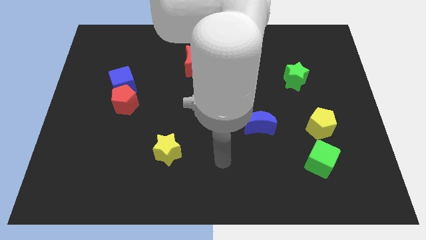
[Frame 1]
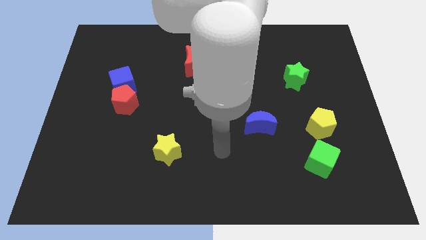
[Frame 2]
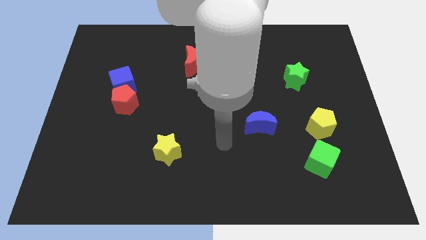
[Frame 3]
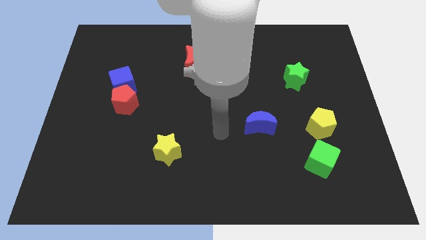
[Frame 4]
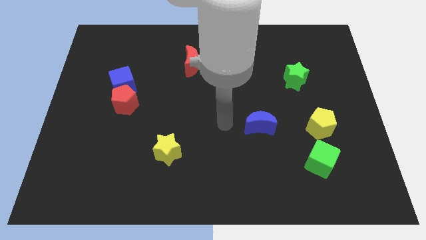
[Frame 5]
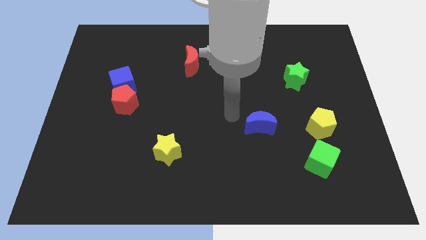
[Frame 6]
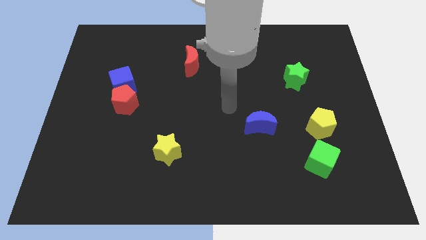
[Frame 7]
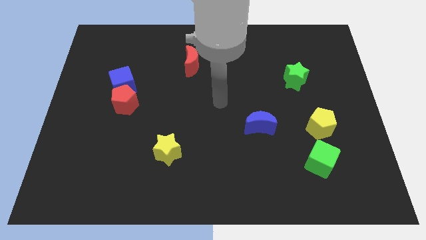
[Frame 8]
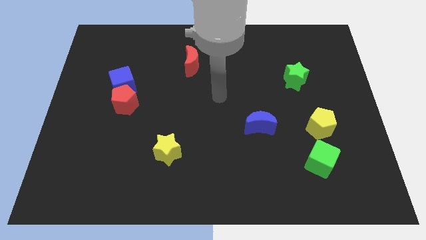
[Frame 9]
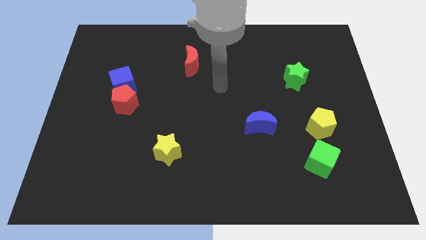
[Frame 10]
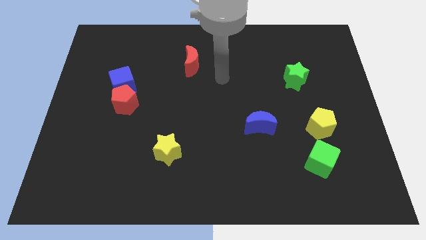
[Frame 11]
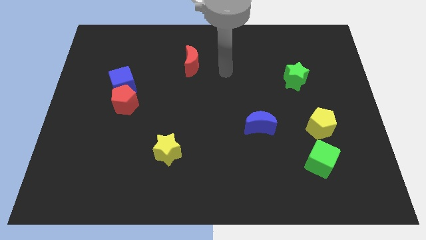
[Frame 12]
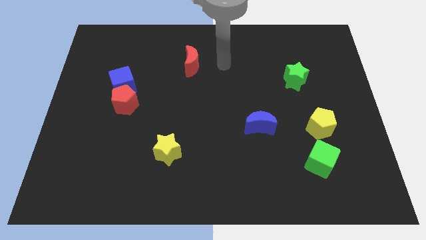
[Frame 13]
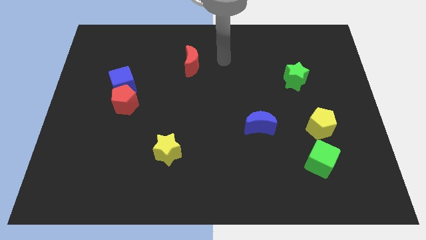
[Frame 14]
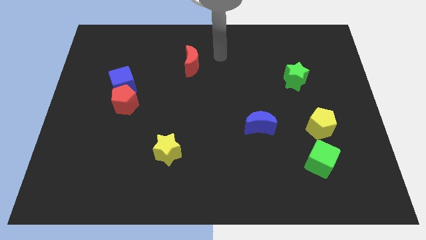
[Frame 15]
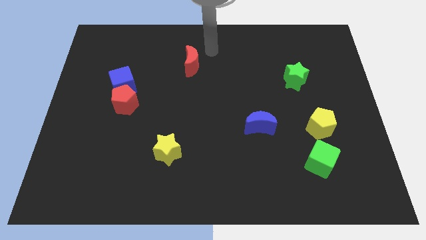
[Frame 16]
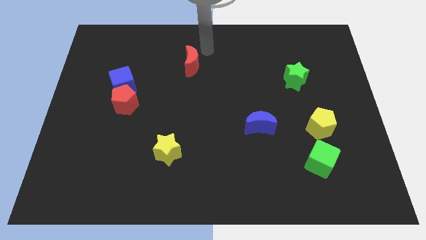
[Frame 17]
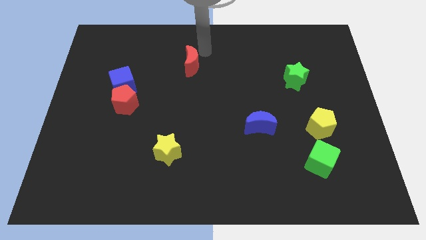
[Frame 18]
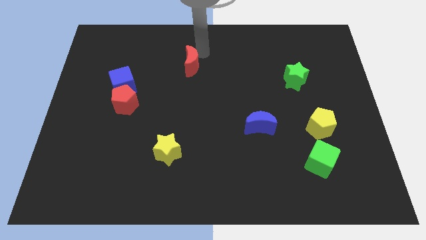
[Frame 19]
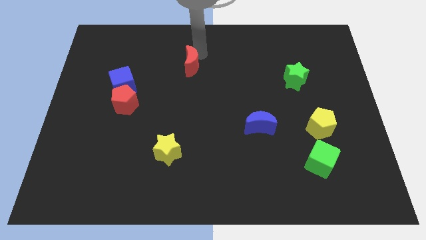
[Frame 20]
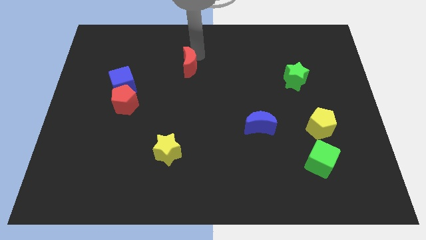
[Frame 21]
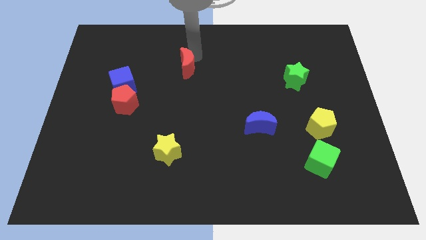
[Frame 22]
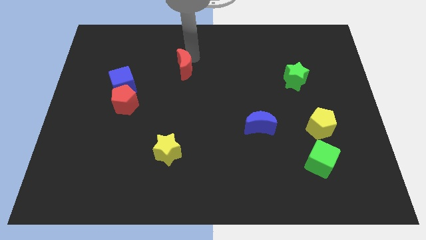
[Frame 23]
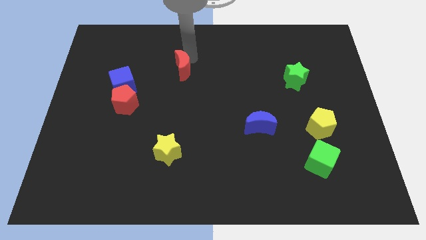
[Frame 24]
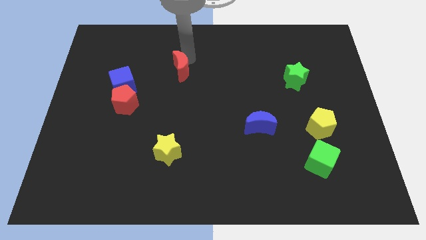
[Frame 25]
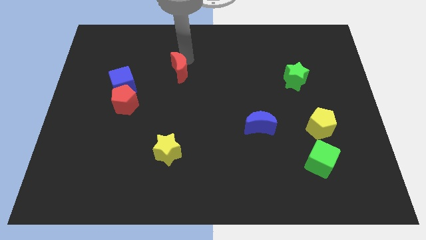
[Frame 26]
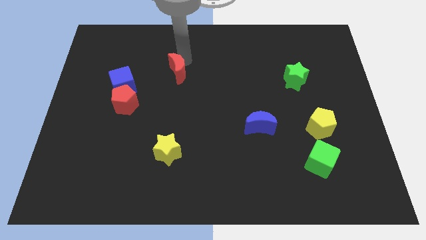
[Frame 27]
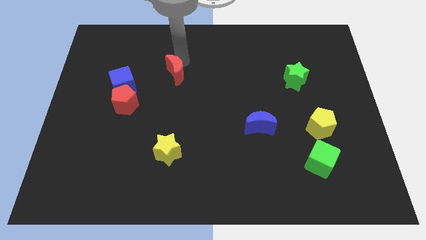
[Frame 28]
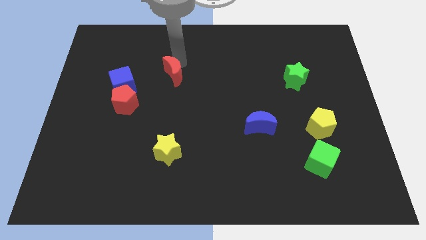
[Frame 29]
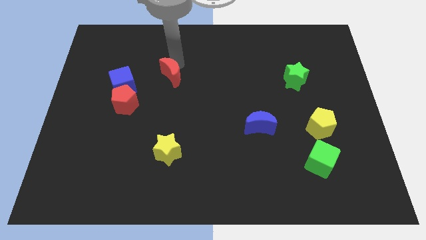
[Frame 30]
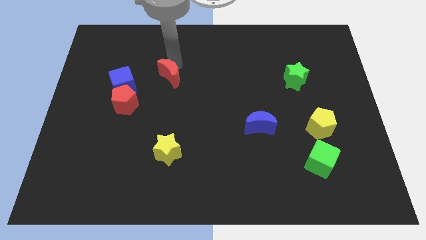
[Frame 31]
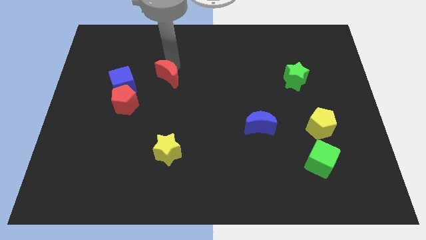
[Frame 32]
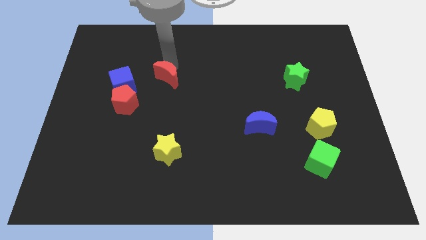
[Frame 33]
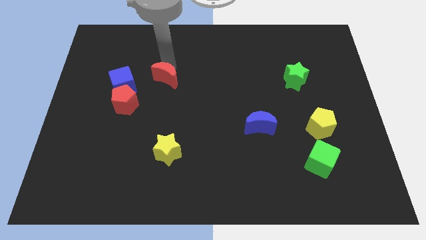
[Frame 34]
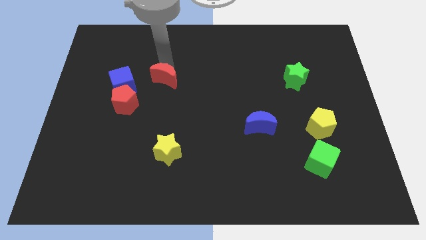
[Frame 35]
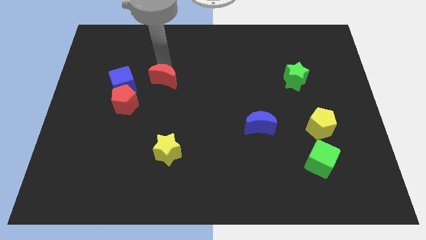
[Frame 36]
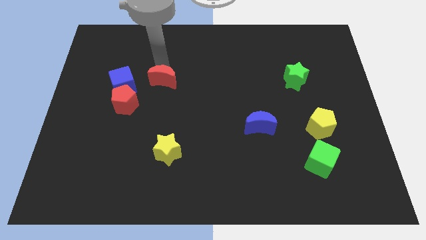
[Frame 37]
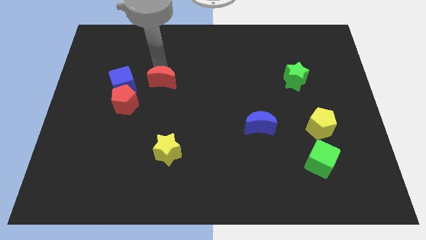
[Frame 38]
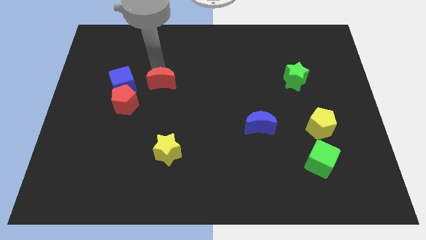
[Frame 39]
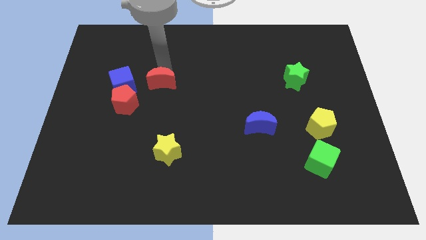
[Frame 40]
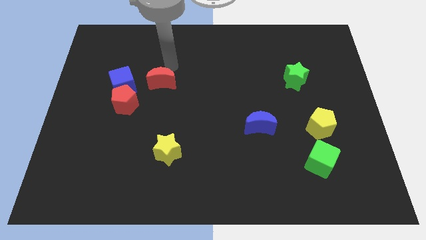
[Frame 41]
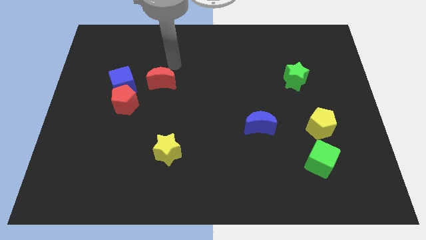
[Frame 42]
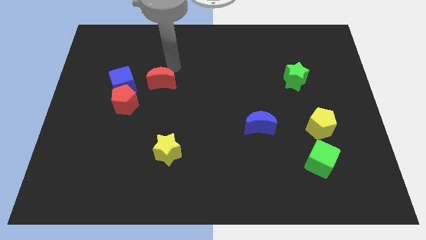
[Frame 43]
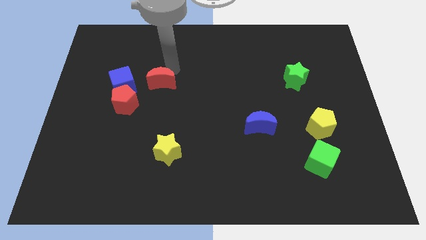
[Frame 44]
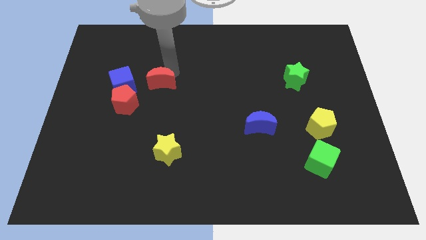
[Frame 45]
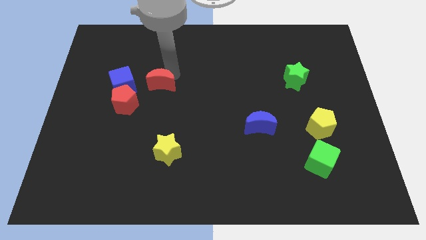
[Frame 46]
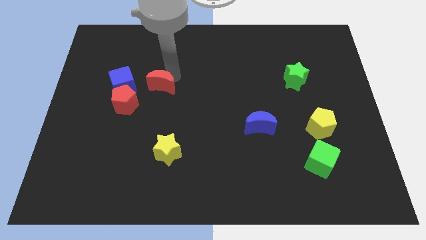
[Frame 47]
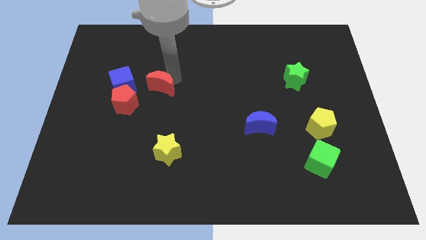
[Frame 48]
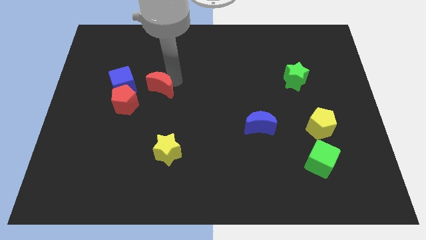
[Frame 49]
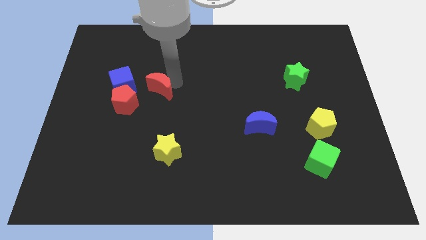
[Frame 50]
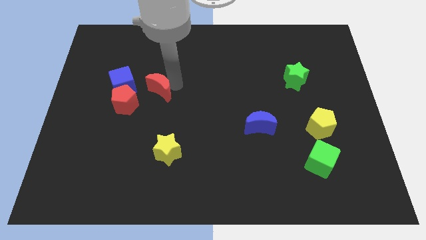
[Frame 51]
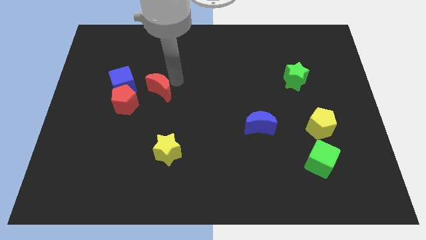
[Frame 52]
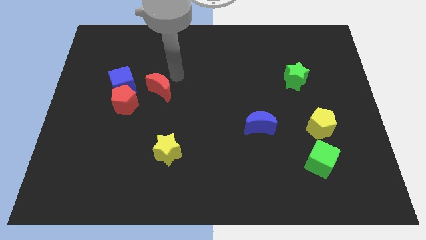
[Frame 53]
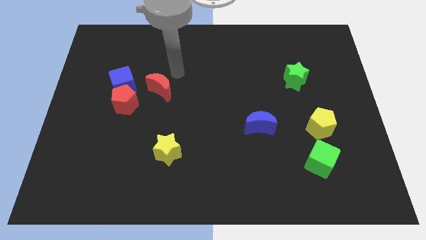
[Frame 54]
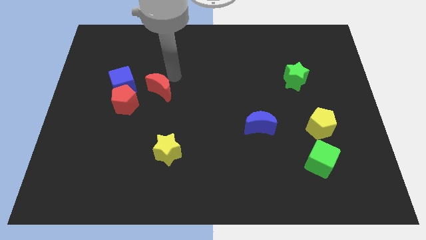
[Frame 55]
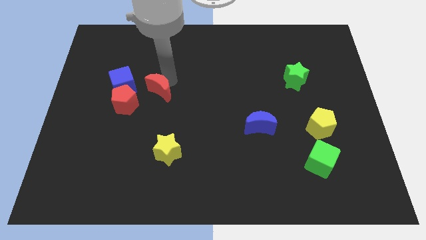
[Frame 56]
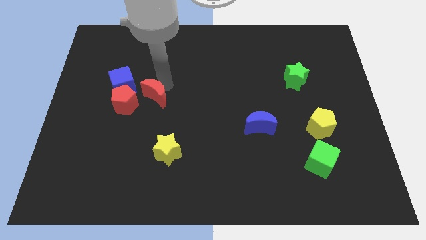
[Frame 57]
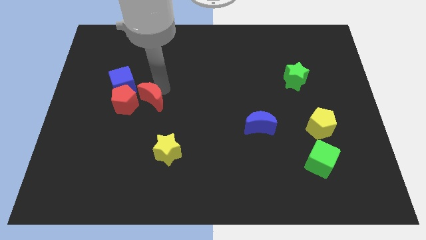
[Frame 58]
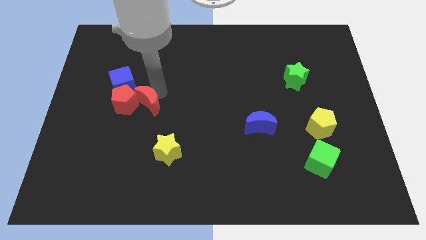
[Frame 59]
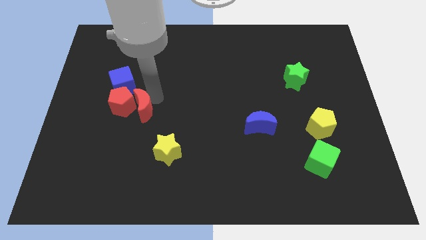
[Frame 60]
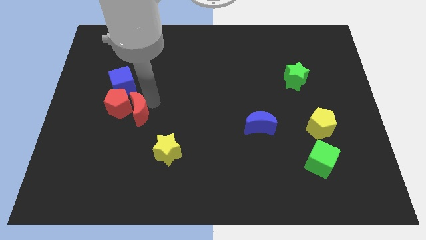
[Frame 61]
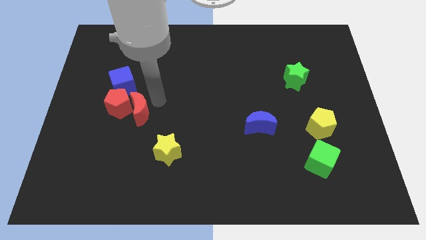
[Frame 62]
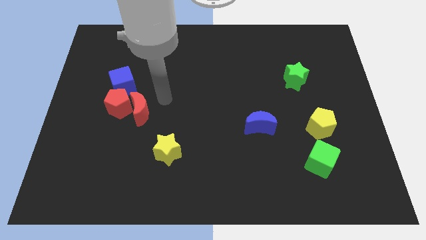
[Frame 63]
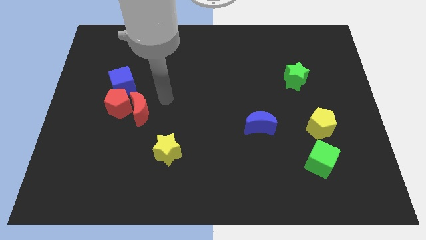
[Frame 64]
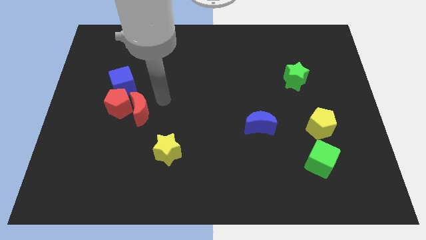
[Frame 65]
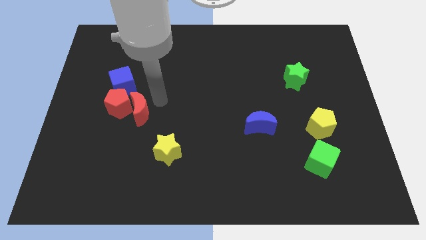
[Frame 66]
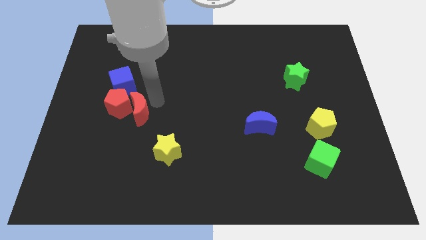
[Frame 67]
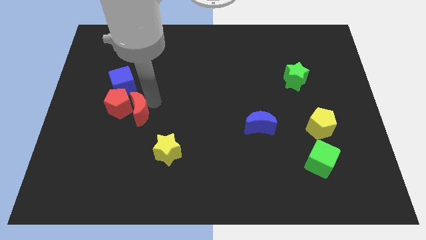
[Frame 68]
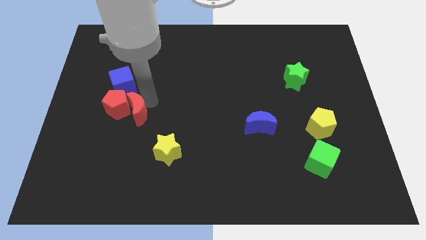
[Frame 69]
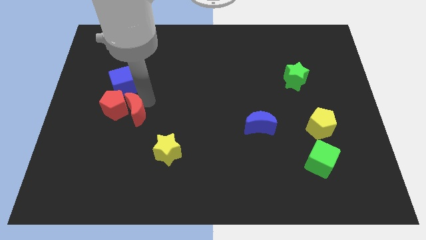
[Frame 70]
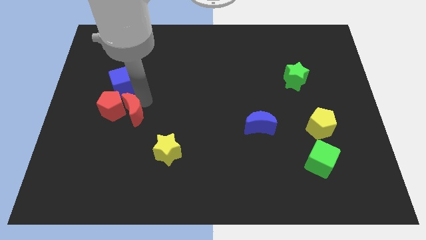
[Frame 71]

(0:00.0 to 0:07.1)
push the red moon down and then left

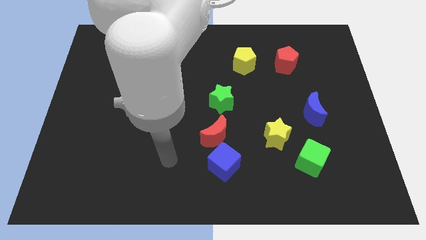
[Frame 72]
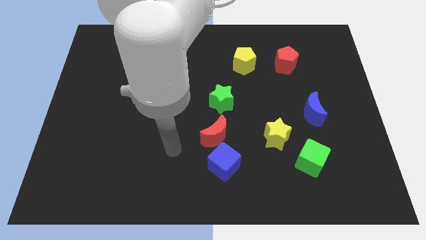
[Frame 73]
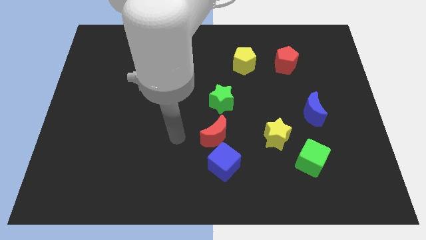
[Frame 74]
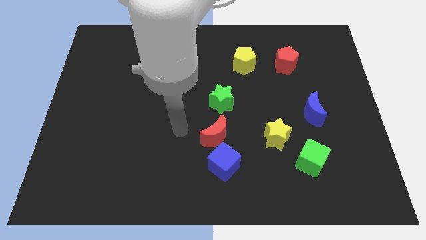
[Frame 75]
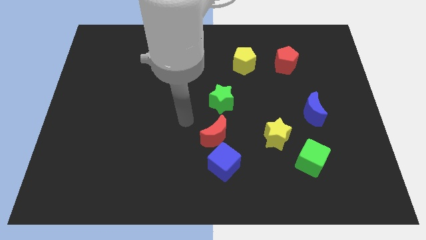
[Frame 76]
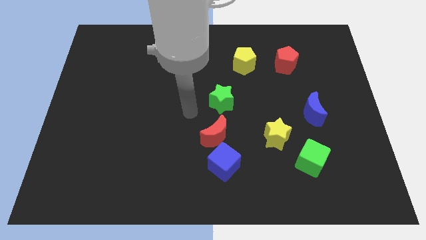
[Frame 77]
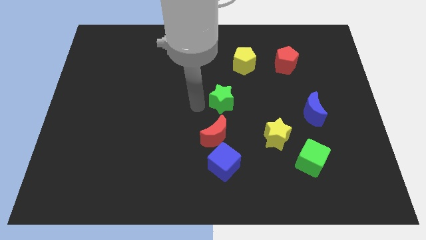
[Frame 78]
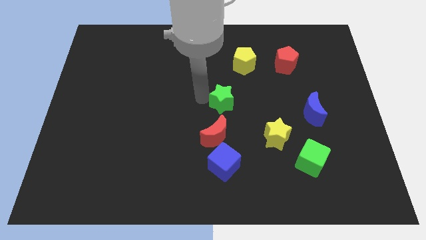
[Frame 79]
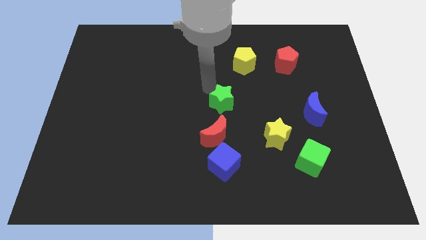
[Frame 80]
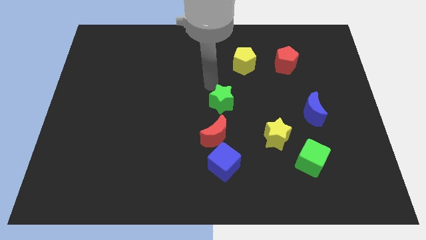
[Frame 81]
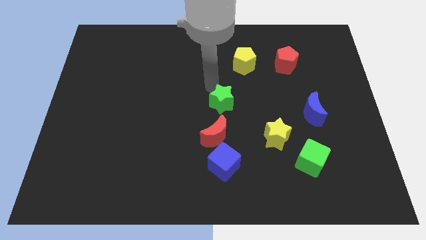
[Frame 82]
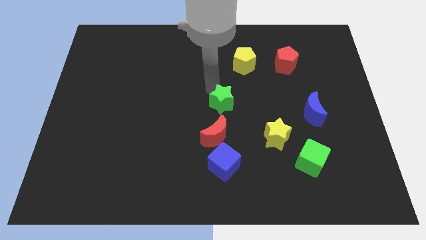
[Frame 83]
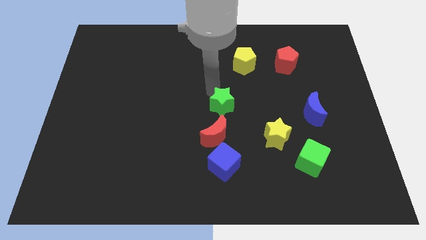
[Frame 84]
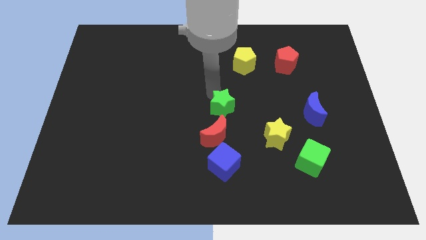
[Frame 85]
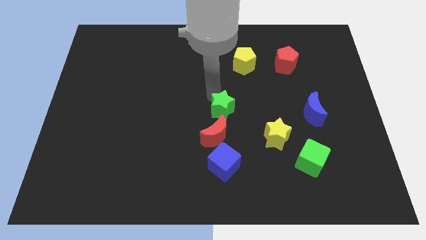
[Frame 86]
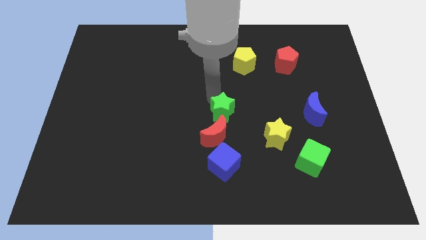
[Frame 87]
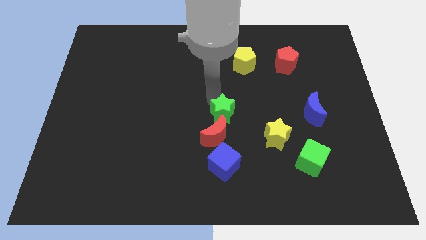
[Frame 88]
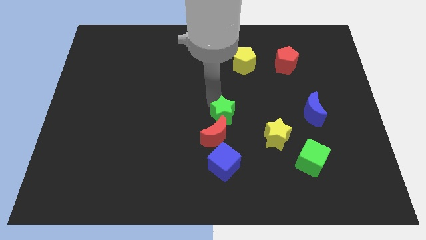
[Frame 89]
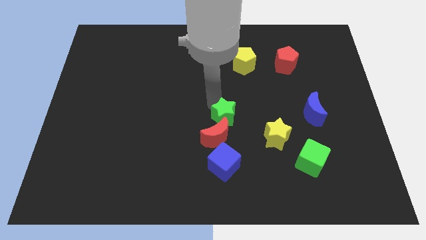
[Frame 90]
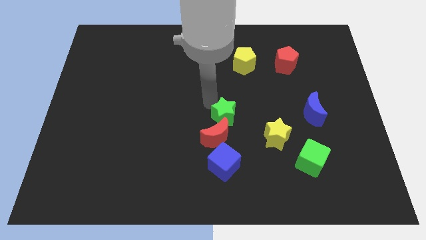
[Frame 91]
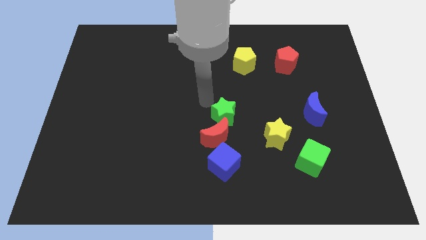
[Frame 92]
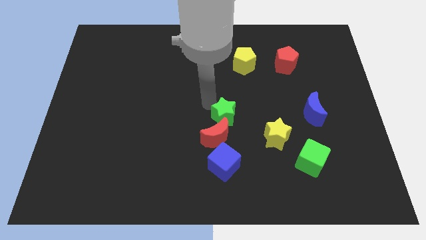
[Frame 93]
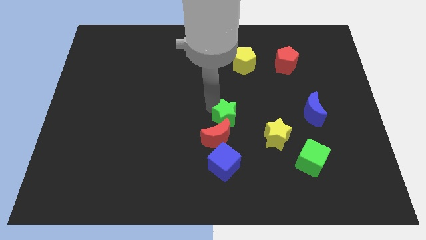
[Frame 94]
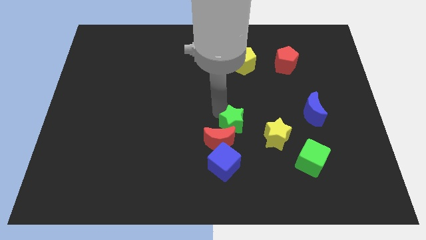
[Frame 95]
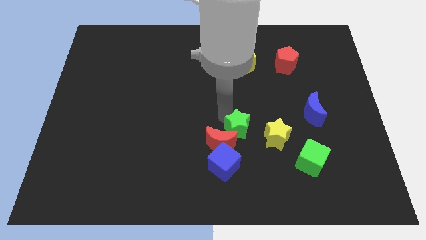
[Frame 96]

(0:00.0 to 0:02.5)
slightly move the green star diagonally down and to the right
